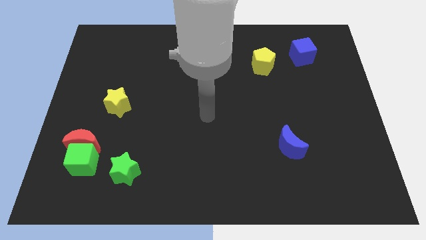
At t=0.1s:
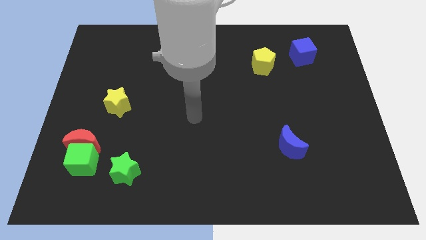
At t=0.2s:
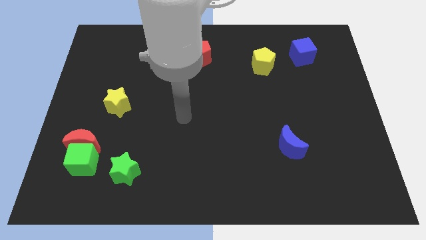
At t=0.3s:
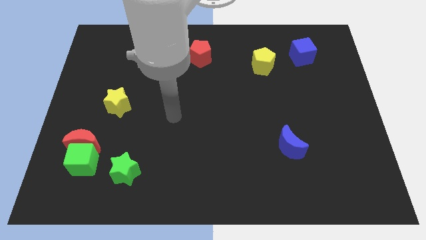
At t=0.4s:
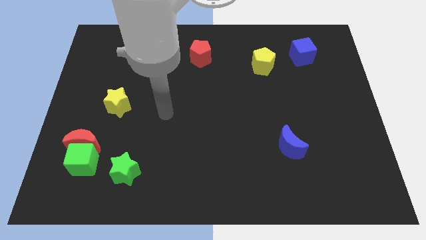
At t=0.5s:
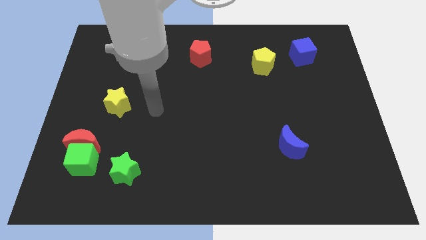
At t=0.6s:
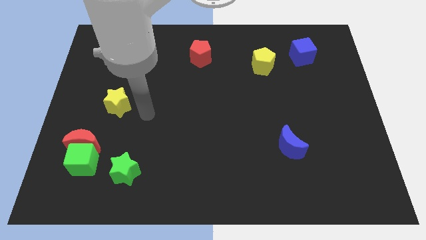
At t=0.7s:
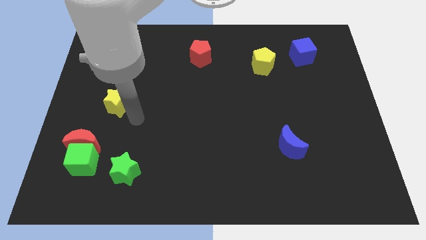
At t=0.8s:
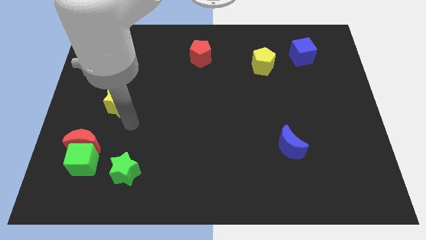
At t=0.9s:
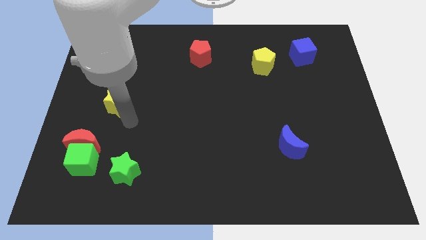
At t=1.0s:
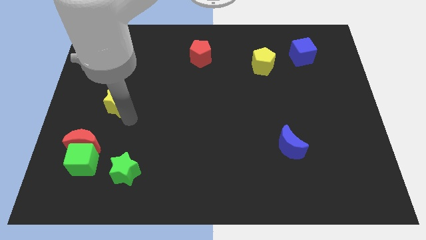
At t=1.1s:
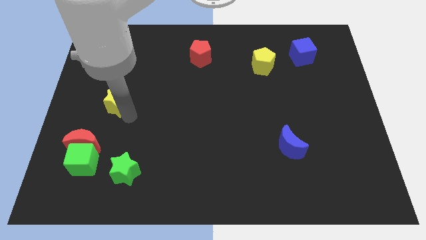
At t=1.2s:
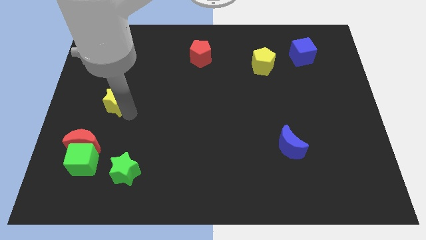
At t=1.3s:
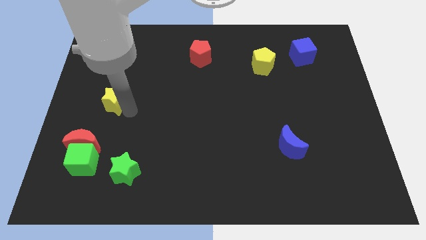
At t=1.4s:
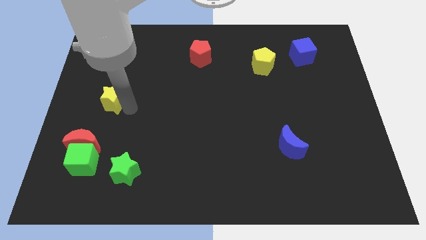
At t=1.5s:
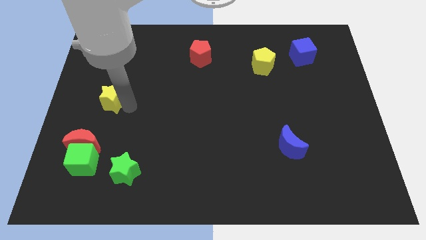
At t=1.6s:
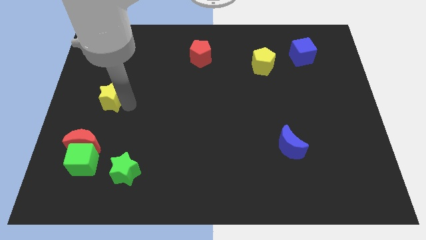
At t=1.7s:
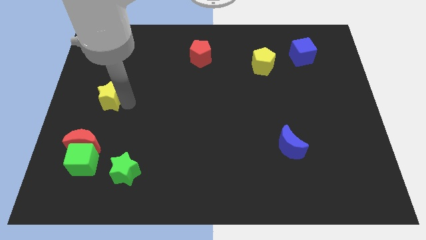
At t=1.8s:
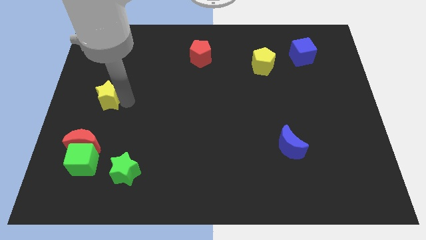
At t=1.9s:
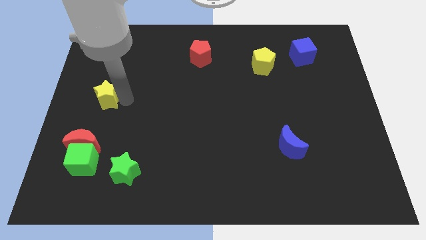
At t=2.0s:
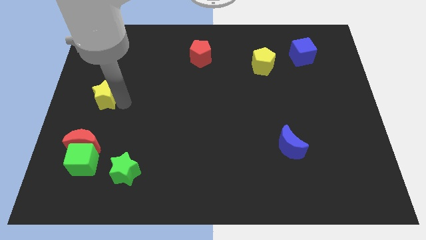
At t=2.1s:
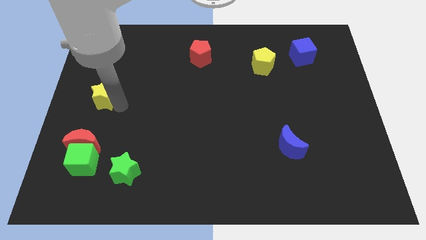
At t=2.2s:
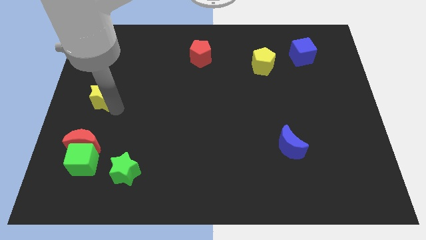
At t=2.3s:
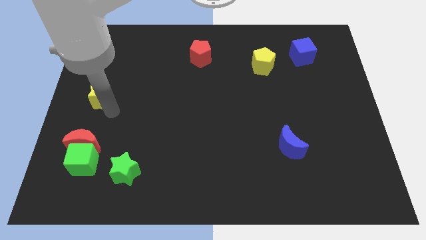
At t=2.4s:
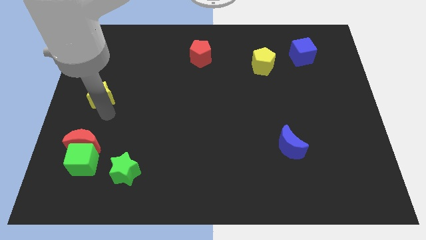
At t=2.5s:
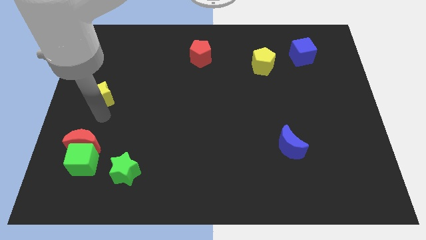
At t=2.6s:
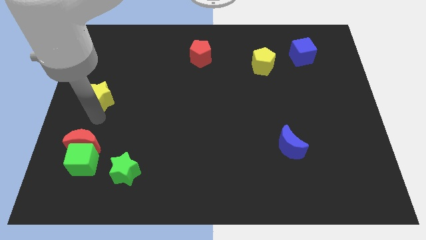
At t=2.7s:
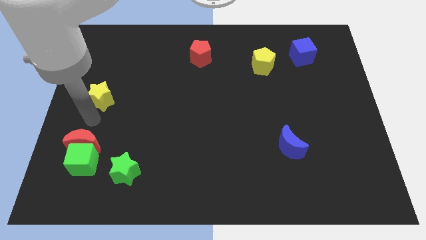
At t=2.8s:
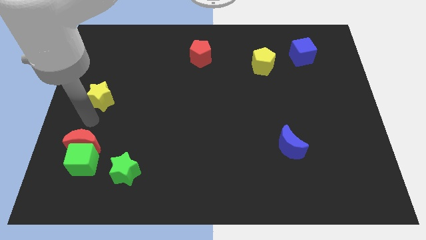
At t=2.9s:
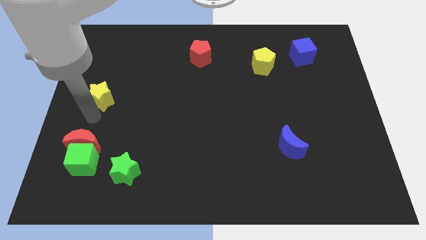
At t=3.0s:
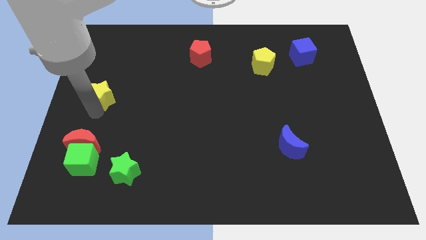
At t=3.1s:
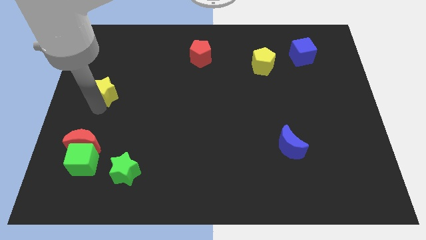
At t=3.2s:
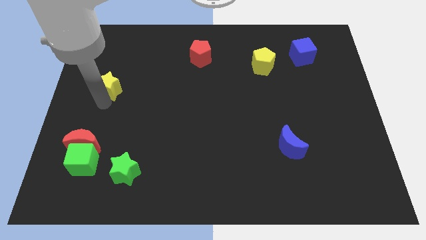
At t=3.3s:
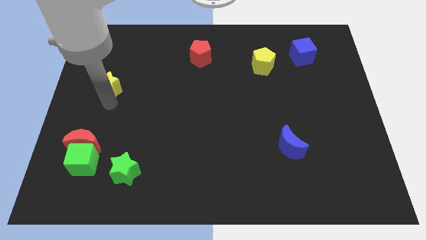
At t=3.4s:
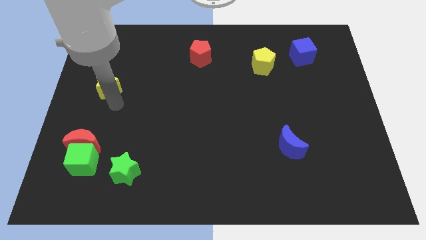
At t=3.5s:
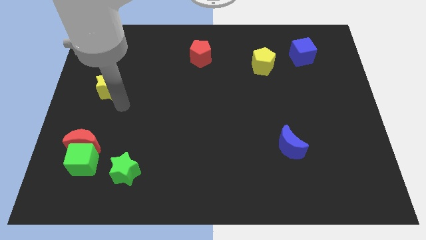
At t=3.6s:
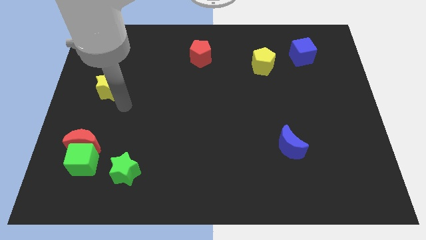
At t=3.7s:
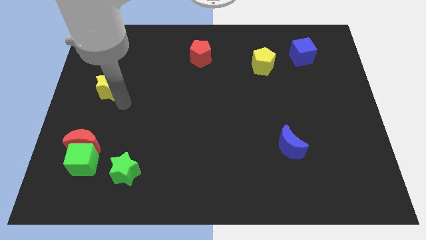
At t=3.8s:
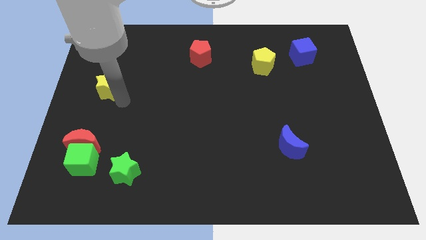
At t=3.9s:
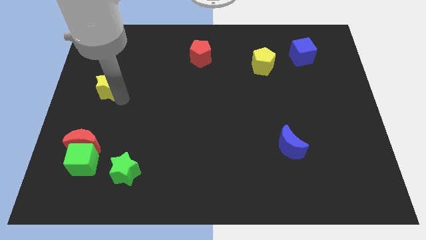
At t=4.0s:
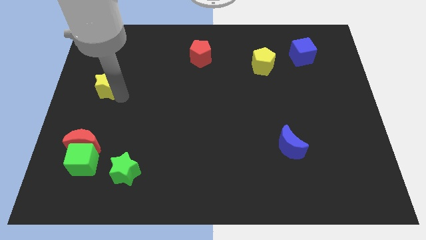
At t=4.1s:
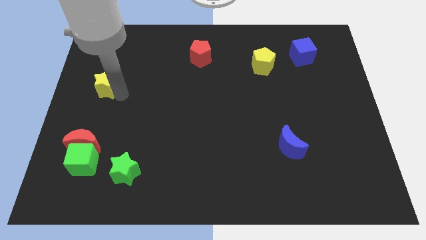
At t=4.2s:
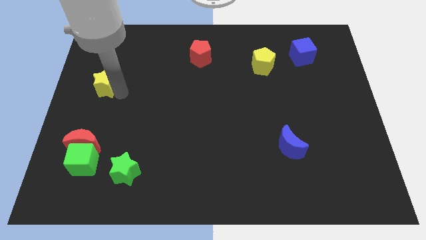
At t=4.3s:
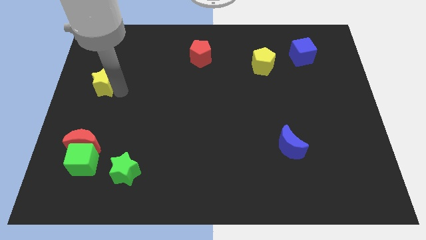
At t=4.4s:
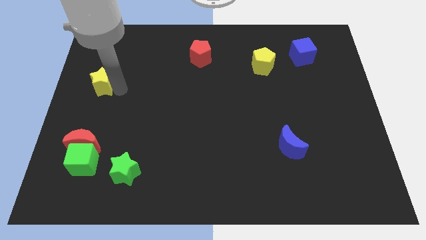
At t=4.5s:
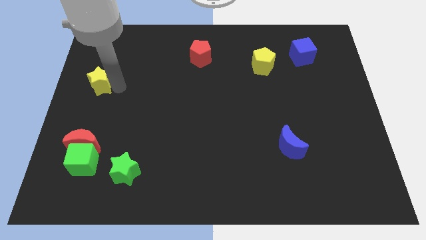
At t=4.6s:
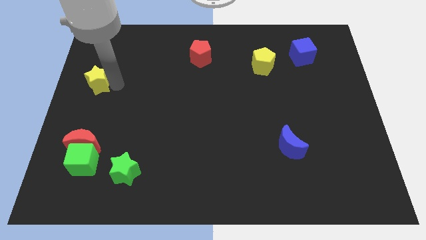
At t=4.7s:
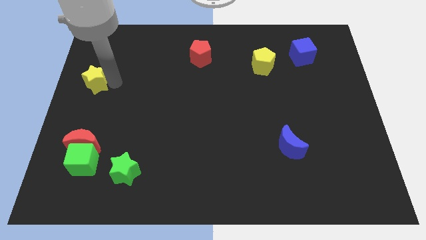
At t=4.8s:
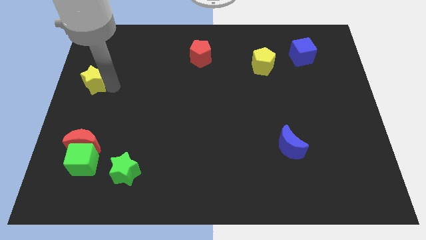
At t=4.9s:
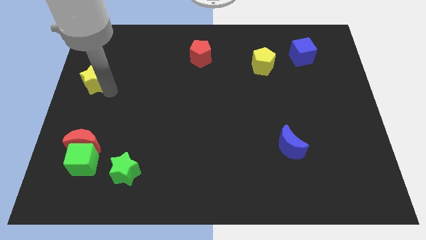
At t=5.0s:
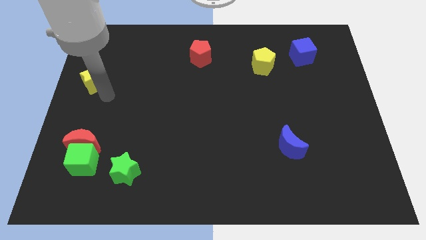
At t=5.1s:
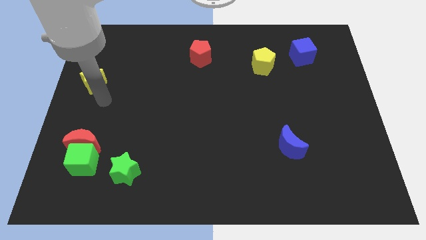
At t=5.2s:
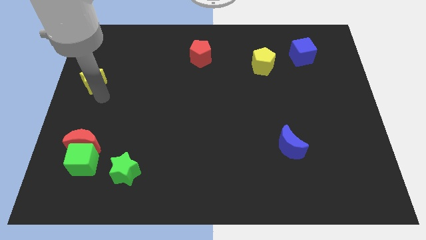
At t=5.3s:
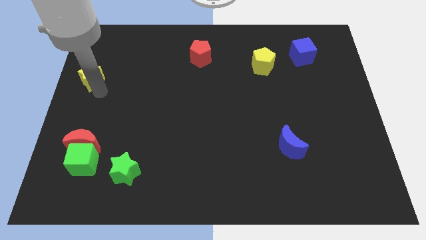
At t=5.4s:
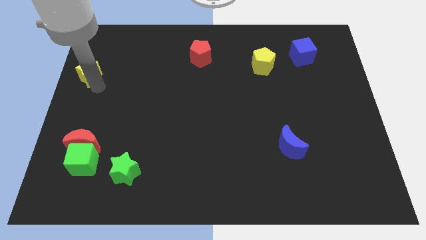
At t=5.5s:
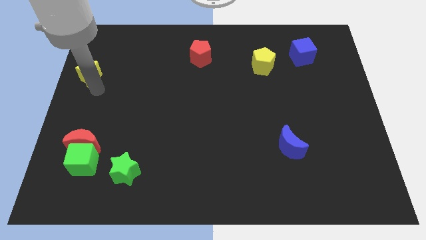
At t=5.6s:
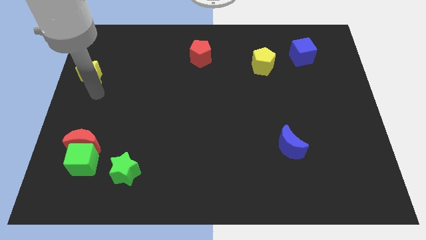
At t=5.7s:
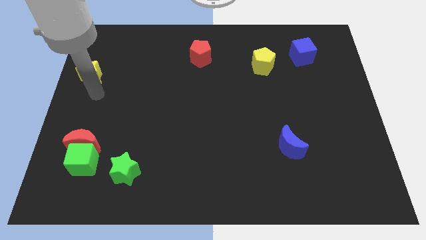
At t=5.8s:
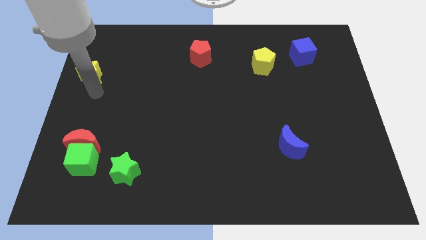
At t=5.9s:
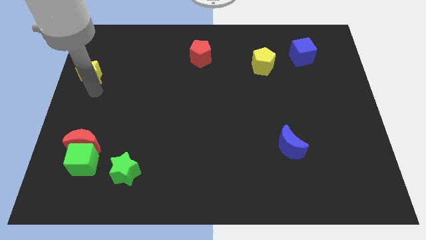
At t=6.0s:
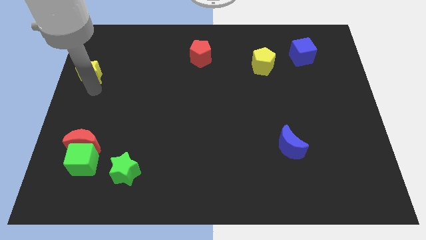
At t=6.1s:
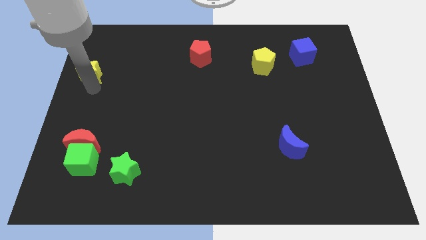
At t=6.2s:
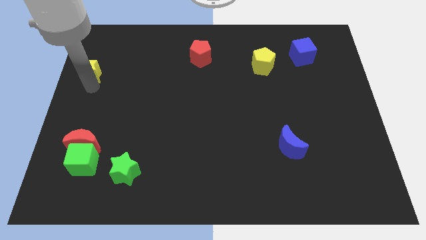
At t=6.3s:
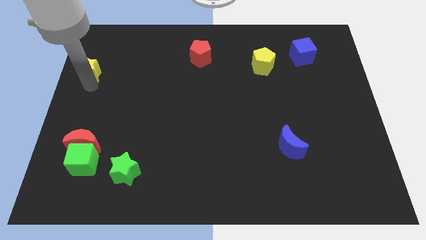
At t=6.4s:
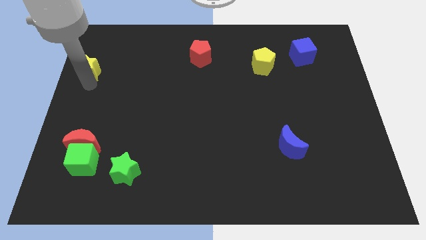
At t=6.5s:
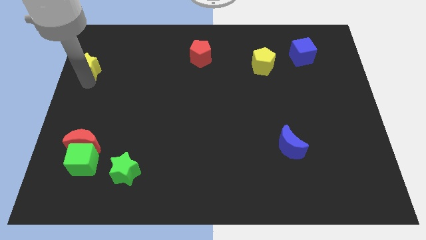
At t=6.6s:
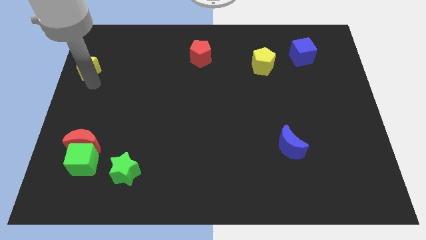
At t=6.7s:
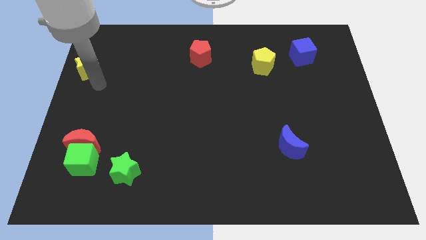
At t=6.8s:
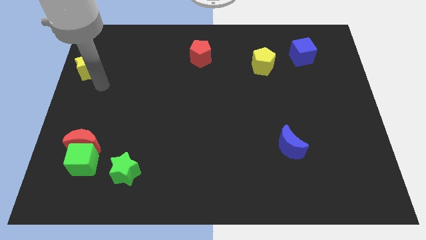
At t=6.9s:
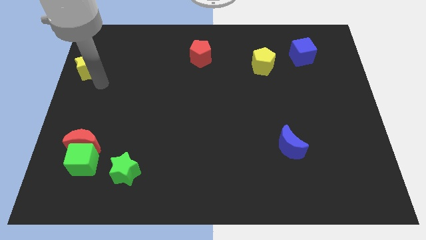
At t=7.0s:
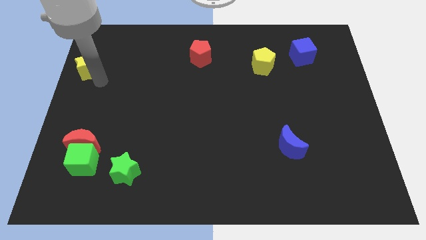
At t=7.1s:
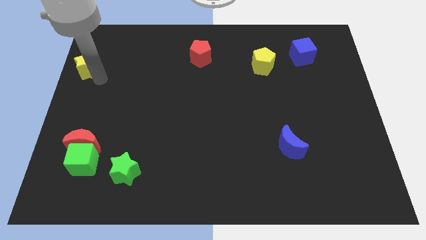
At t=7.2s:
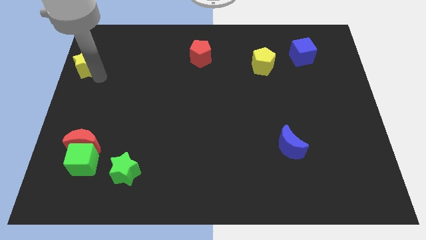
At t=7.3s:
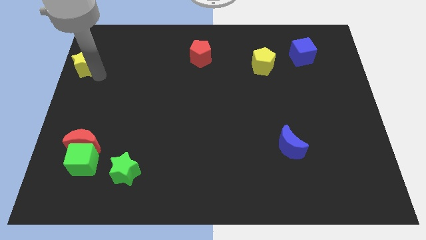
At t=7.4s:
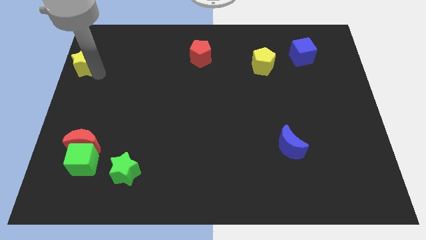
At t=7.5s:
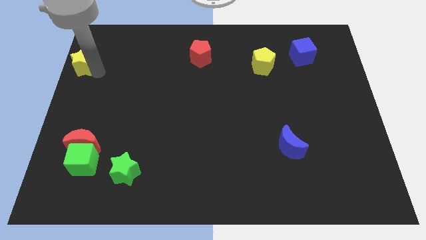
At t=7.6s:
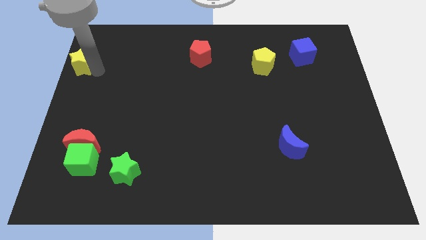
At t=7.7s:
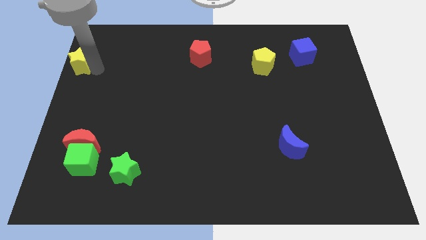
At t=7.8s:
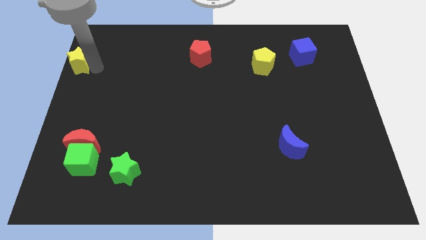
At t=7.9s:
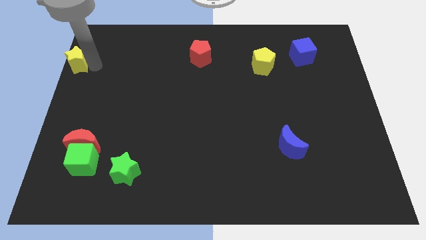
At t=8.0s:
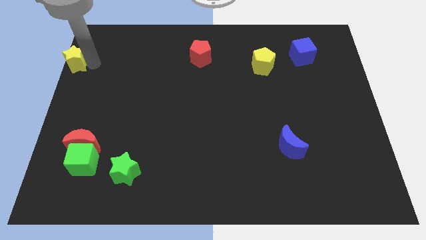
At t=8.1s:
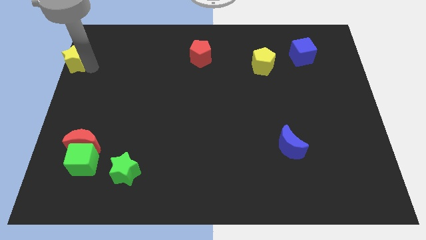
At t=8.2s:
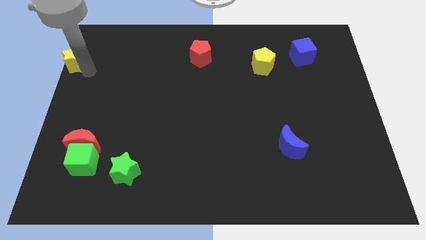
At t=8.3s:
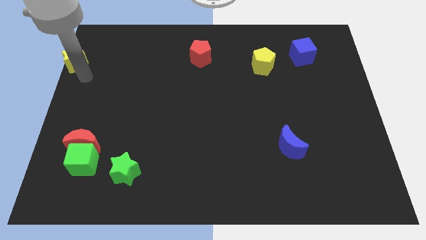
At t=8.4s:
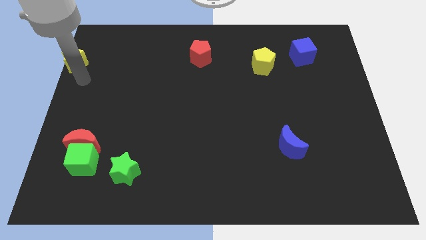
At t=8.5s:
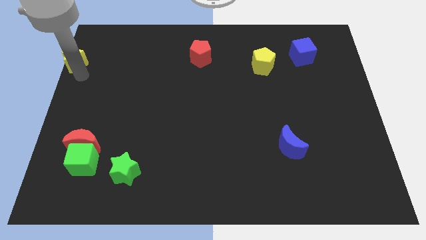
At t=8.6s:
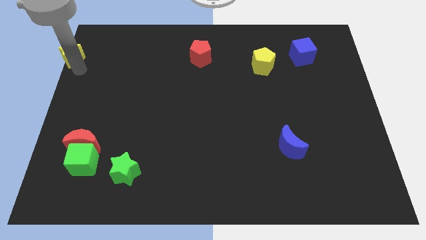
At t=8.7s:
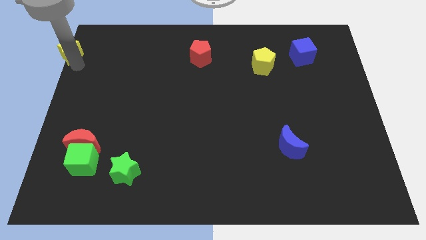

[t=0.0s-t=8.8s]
move the yellow star to the top left
